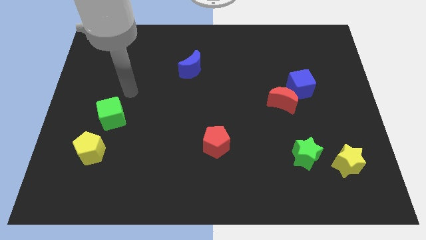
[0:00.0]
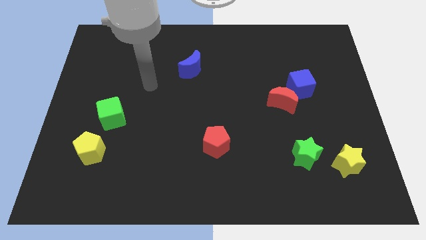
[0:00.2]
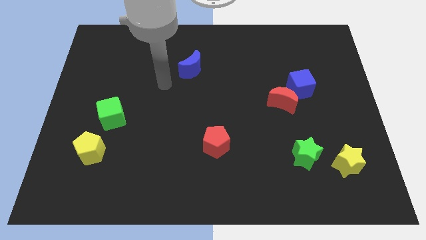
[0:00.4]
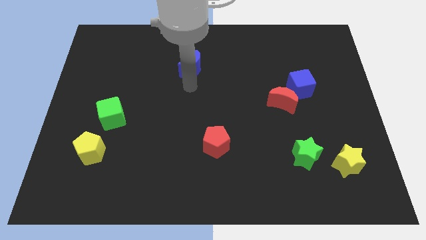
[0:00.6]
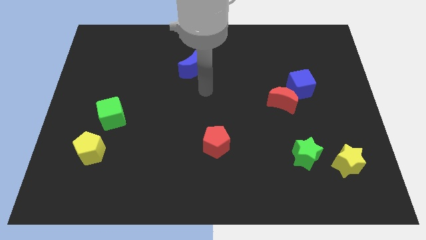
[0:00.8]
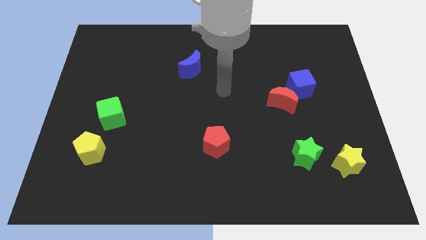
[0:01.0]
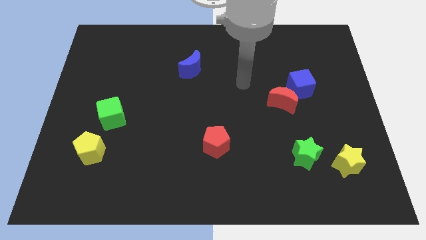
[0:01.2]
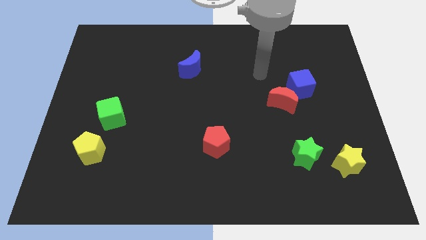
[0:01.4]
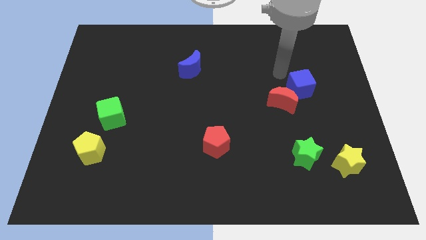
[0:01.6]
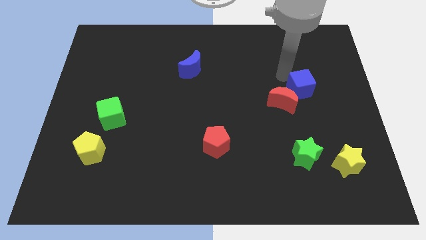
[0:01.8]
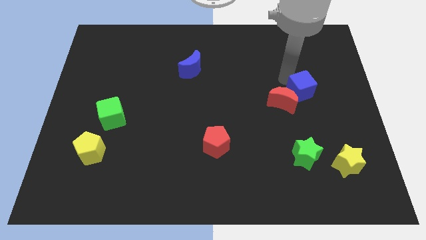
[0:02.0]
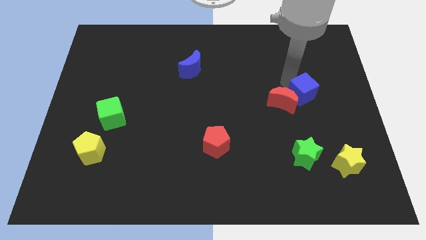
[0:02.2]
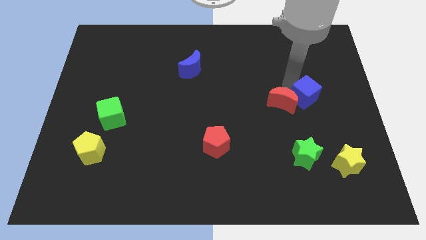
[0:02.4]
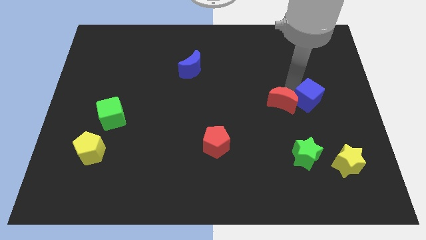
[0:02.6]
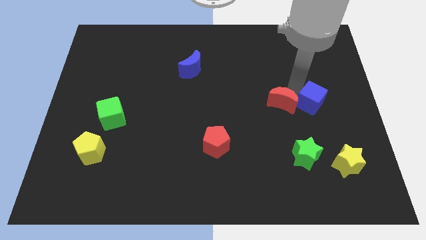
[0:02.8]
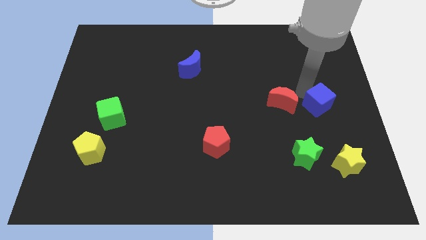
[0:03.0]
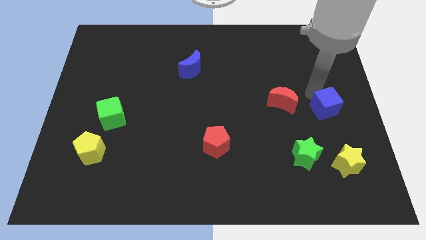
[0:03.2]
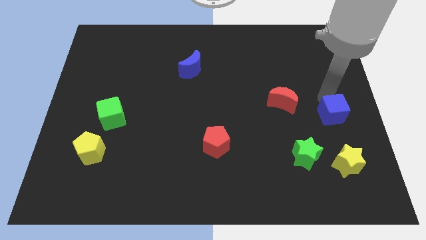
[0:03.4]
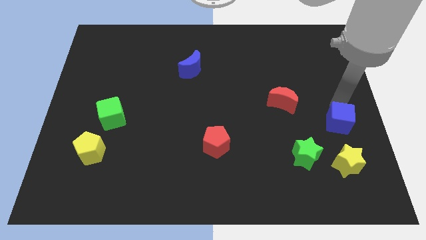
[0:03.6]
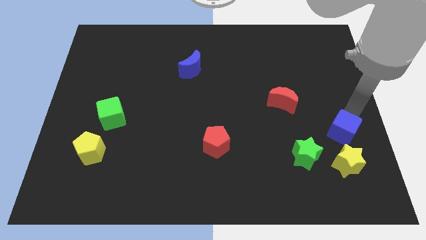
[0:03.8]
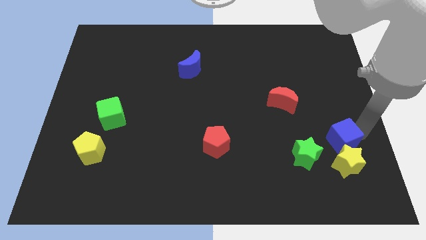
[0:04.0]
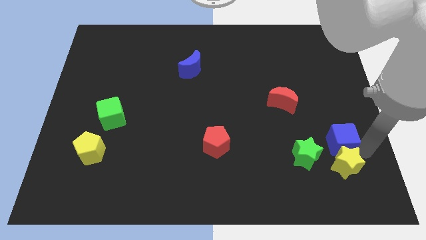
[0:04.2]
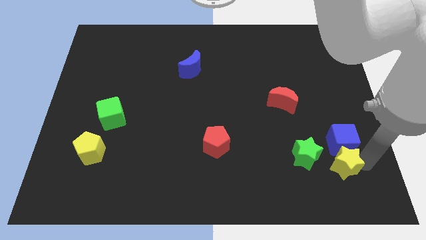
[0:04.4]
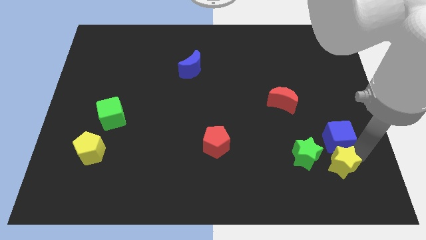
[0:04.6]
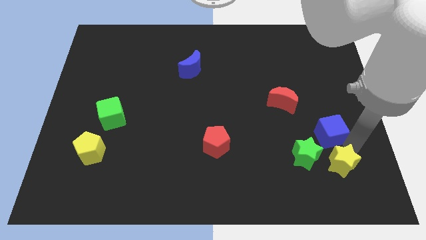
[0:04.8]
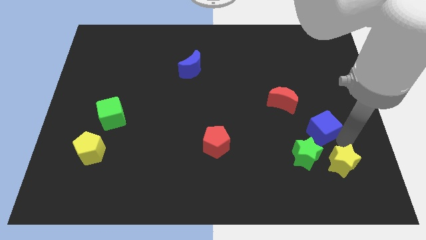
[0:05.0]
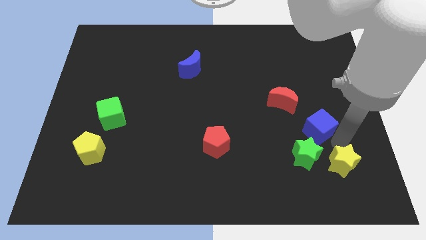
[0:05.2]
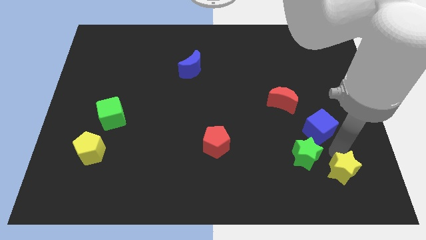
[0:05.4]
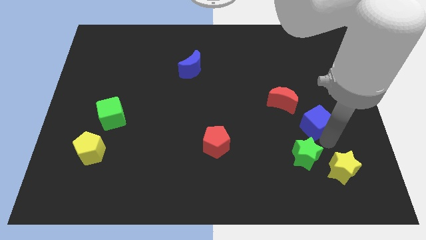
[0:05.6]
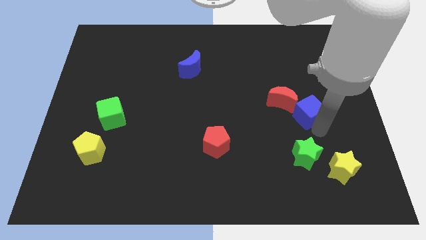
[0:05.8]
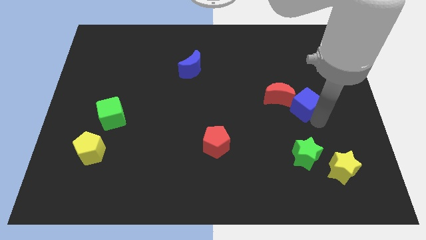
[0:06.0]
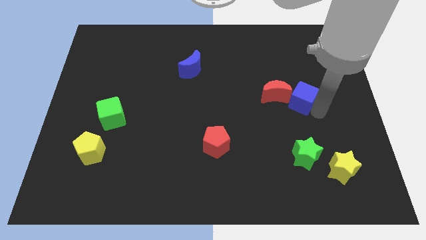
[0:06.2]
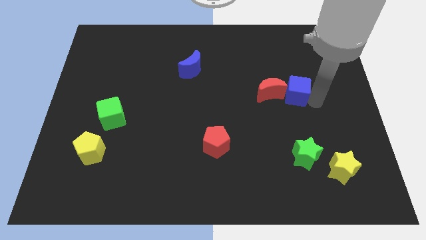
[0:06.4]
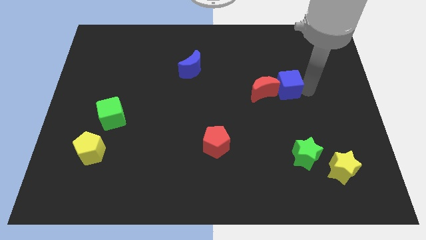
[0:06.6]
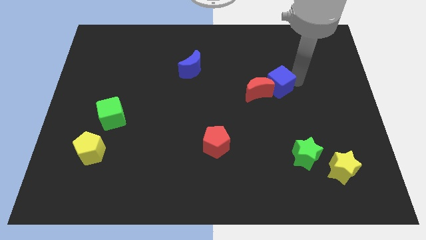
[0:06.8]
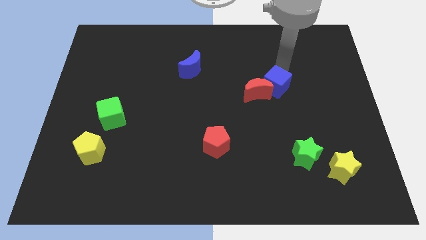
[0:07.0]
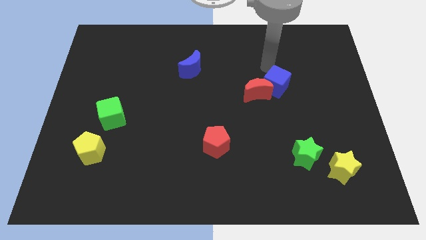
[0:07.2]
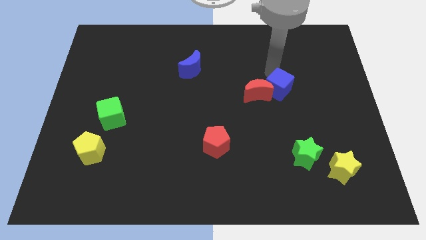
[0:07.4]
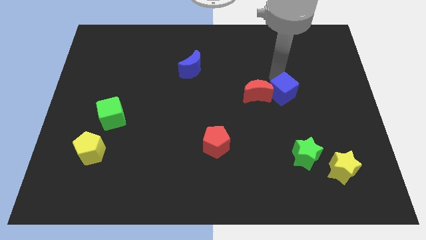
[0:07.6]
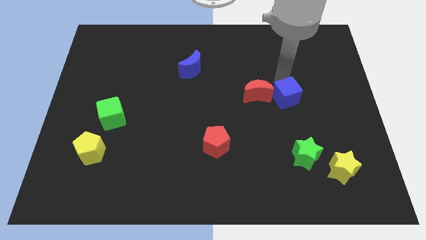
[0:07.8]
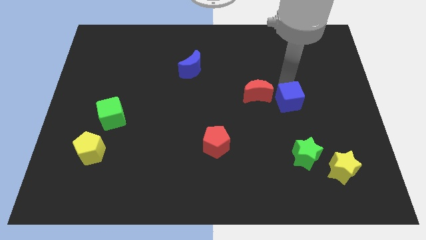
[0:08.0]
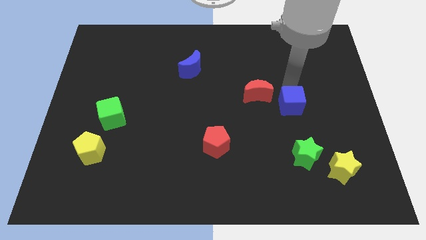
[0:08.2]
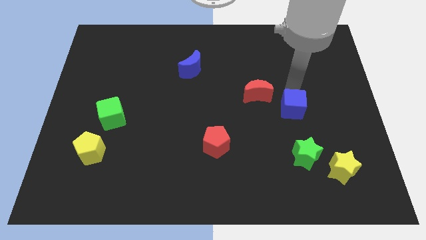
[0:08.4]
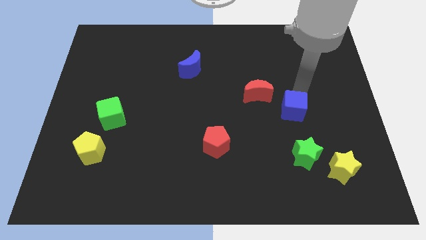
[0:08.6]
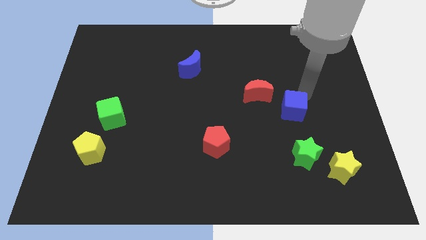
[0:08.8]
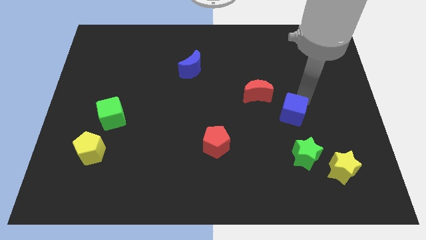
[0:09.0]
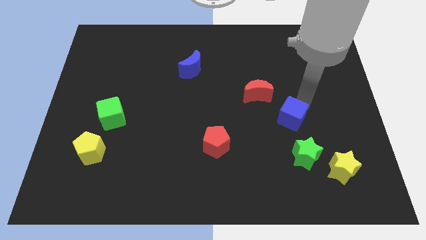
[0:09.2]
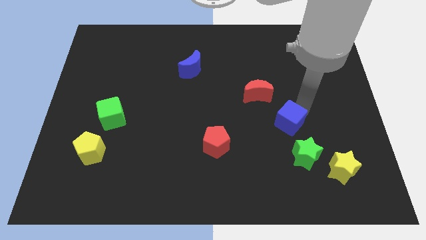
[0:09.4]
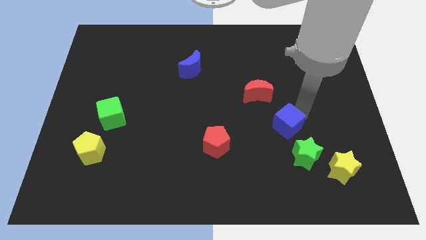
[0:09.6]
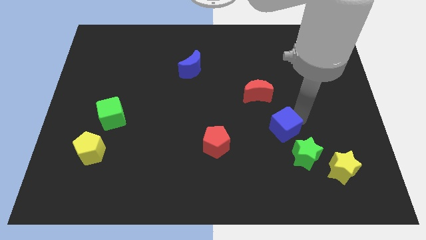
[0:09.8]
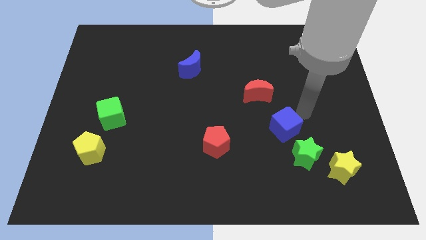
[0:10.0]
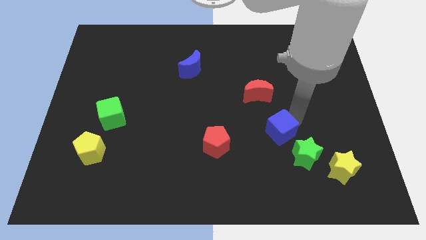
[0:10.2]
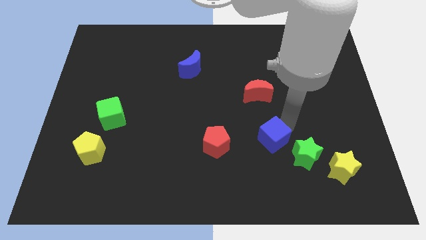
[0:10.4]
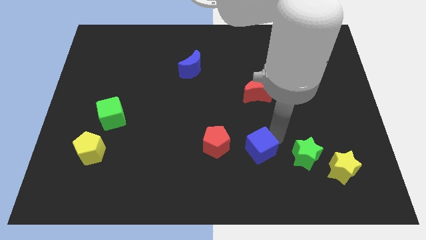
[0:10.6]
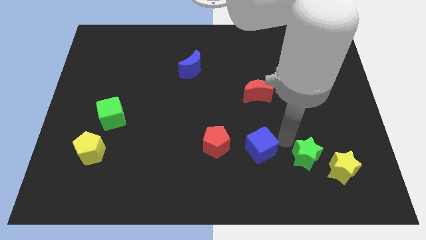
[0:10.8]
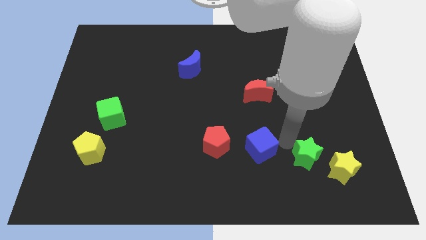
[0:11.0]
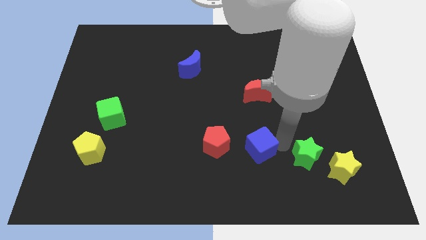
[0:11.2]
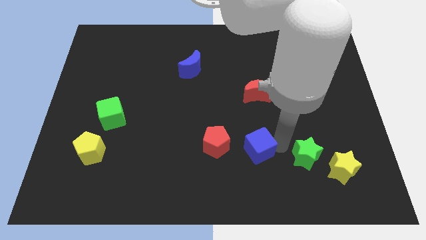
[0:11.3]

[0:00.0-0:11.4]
slide the blue cube downwards and then left

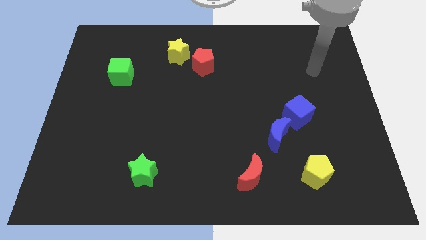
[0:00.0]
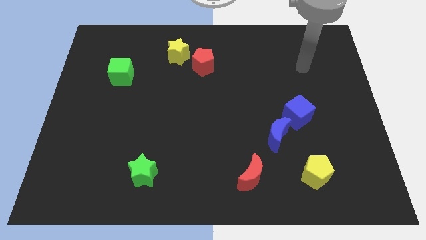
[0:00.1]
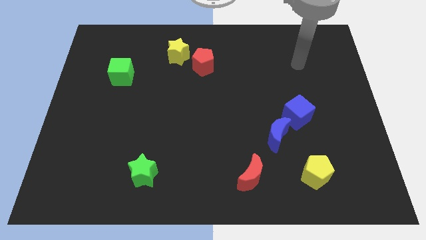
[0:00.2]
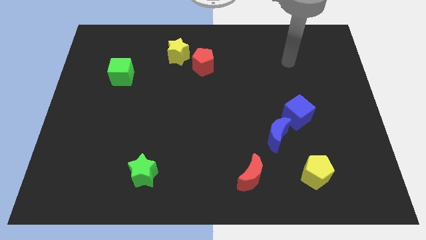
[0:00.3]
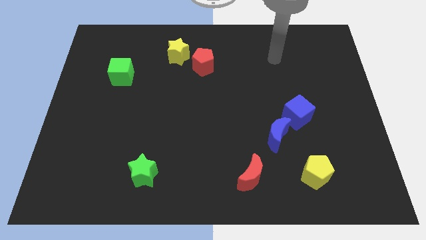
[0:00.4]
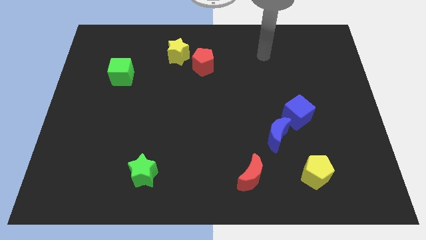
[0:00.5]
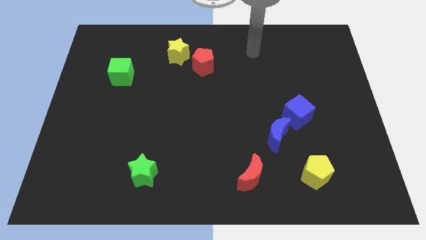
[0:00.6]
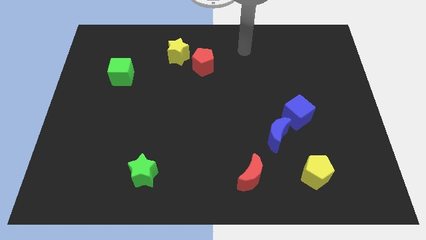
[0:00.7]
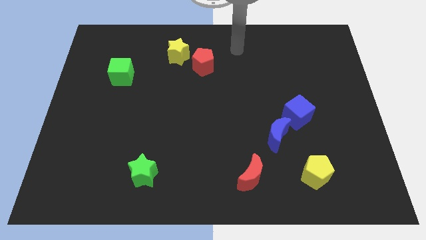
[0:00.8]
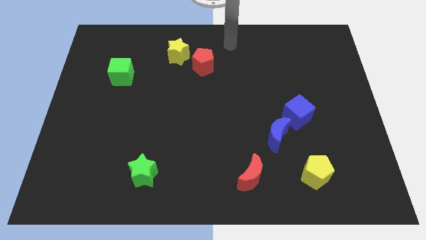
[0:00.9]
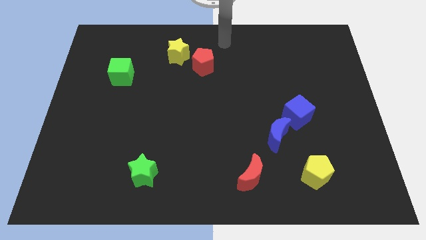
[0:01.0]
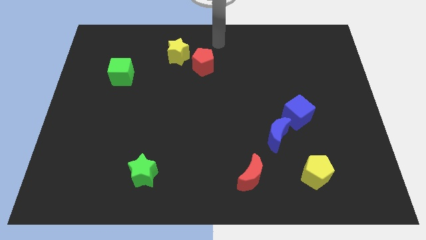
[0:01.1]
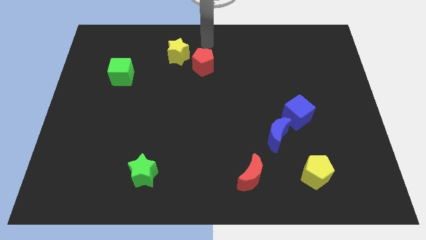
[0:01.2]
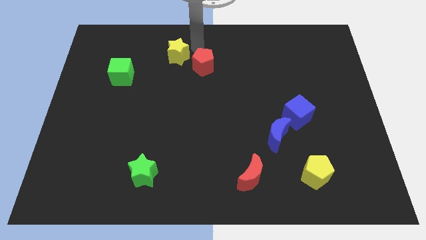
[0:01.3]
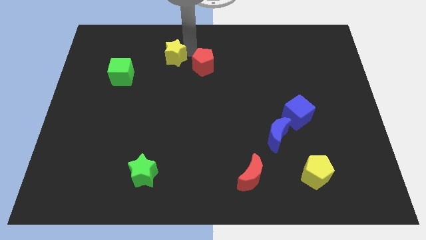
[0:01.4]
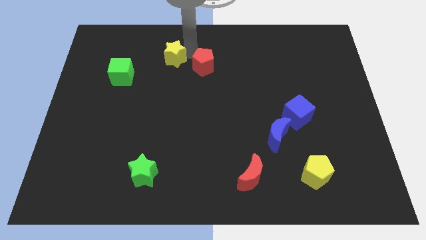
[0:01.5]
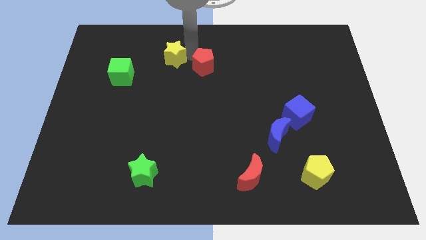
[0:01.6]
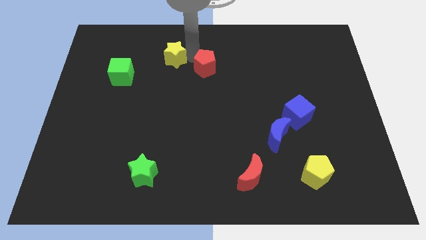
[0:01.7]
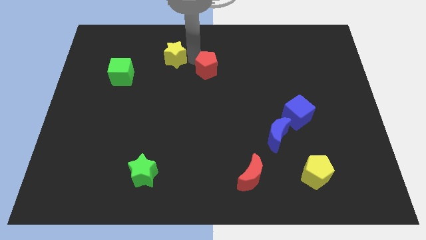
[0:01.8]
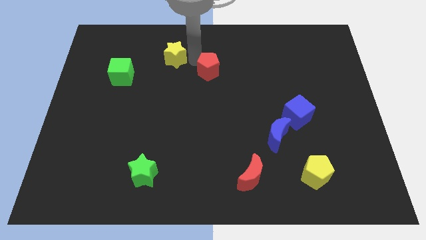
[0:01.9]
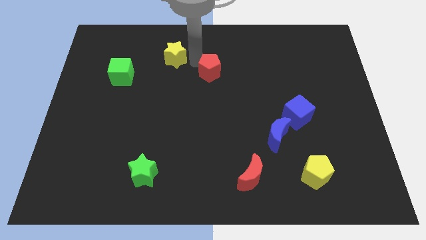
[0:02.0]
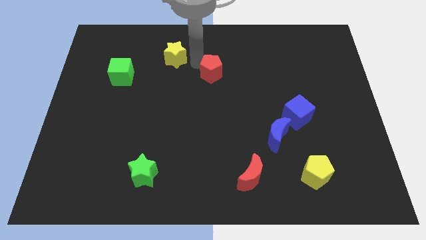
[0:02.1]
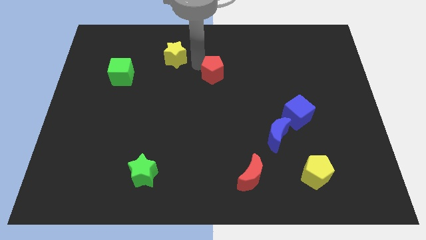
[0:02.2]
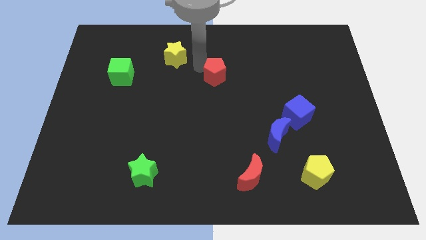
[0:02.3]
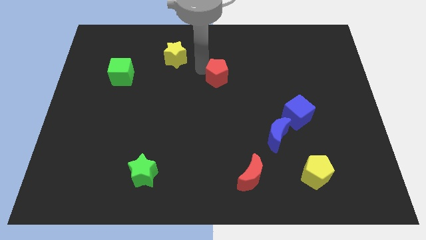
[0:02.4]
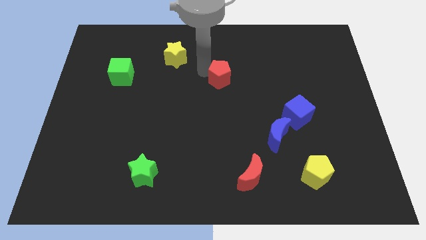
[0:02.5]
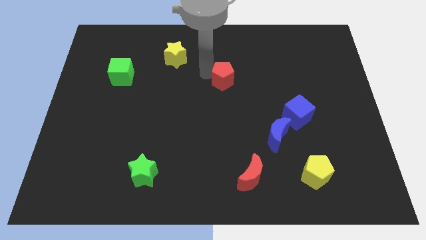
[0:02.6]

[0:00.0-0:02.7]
slide the red pentagon slightly down and to the right diagonally

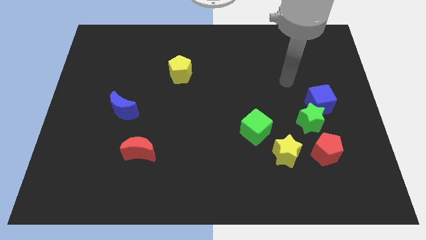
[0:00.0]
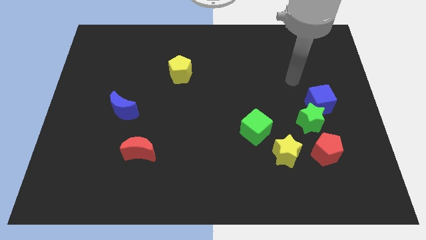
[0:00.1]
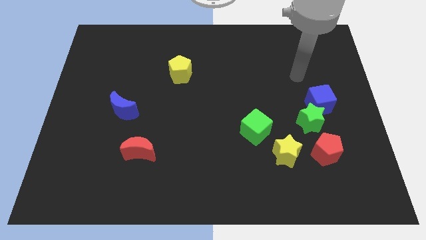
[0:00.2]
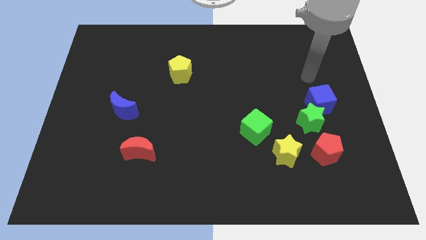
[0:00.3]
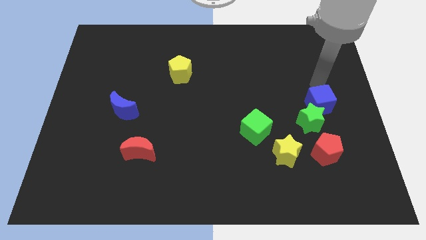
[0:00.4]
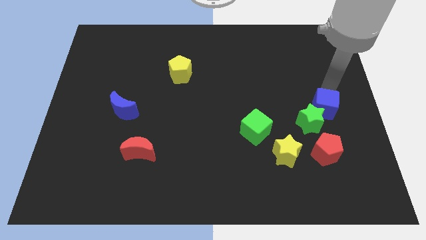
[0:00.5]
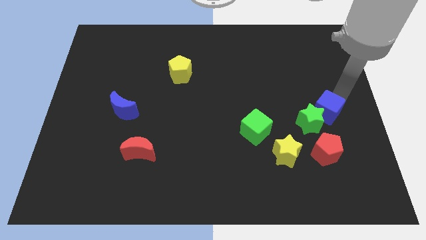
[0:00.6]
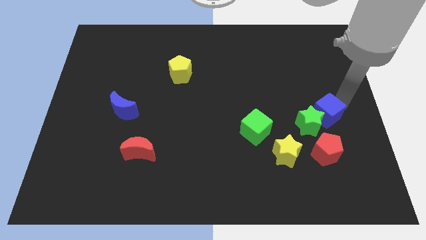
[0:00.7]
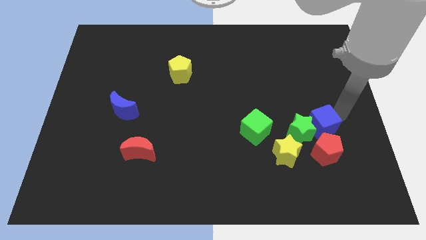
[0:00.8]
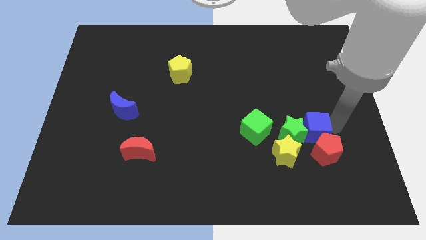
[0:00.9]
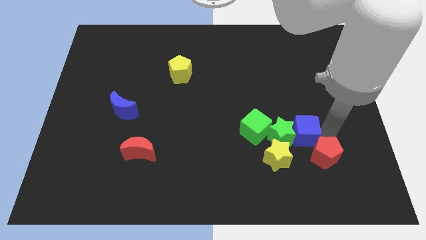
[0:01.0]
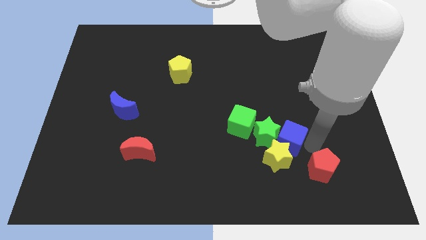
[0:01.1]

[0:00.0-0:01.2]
slide the green star to the left a little
